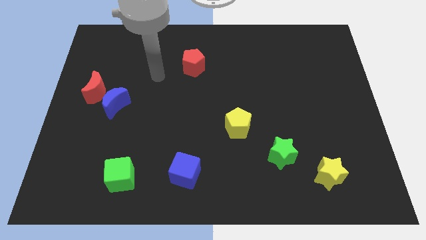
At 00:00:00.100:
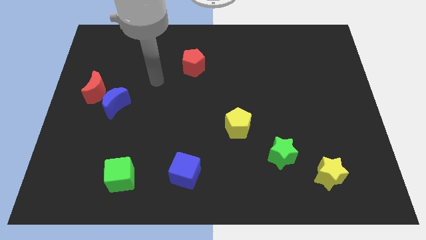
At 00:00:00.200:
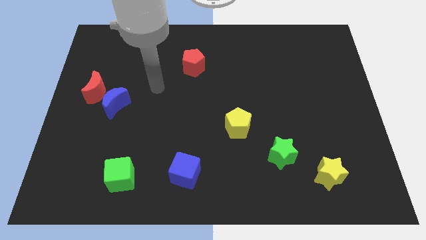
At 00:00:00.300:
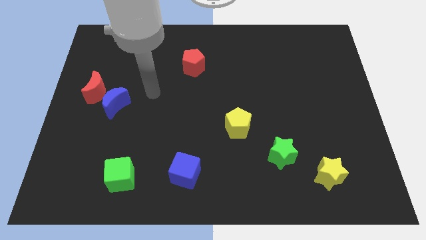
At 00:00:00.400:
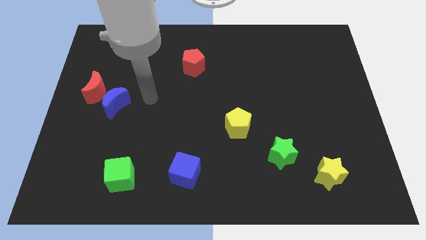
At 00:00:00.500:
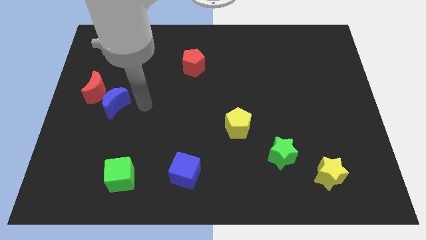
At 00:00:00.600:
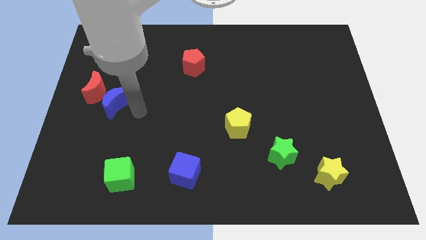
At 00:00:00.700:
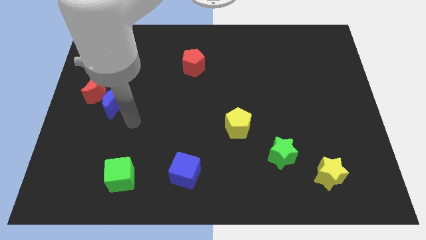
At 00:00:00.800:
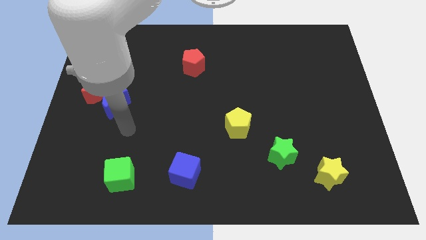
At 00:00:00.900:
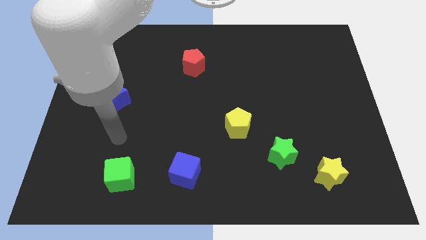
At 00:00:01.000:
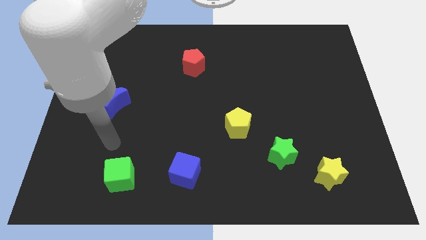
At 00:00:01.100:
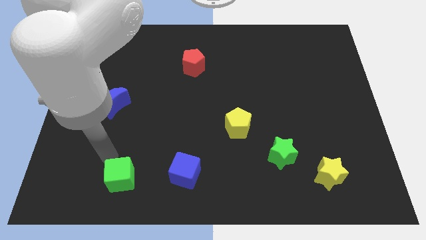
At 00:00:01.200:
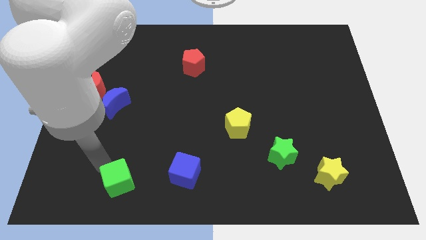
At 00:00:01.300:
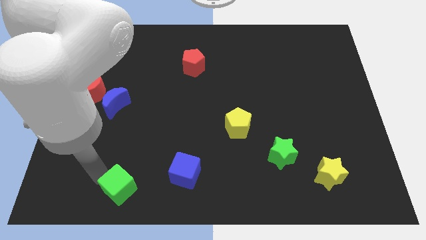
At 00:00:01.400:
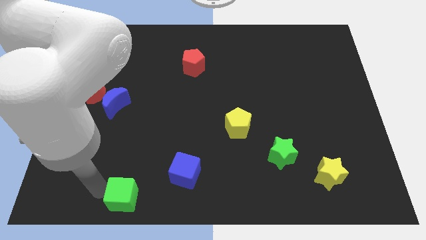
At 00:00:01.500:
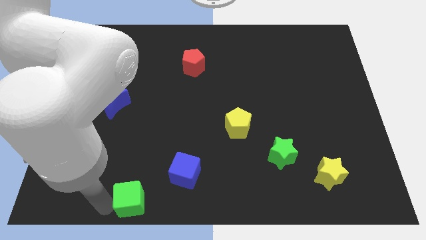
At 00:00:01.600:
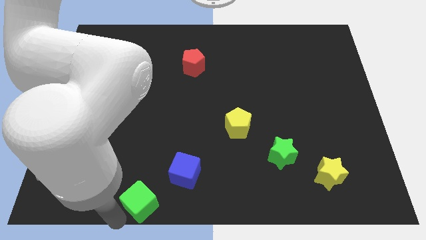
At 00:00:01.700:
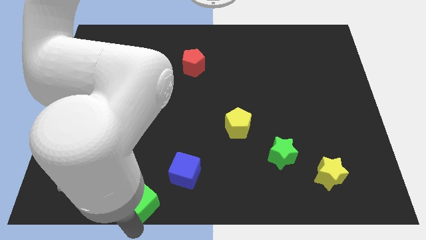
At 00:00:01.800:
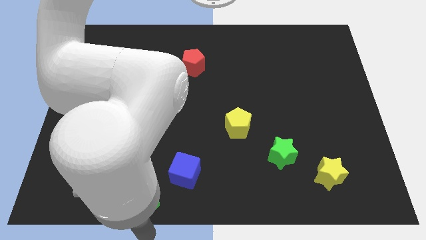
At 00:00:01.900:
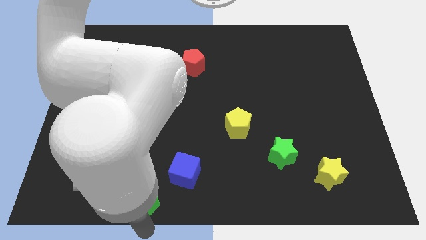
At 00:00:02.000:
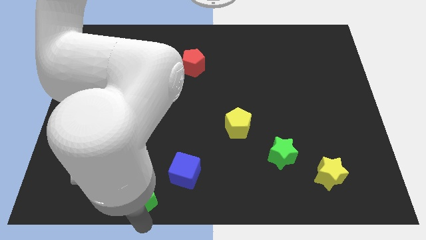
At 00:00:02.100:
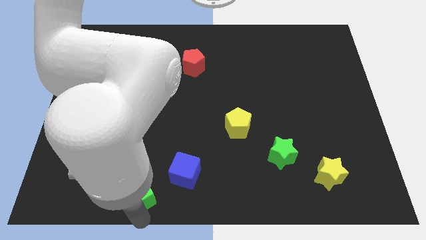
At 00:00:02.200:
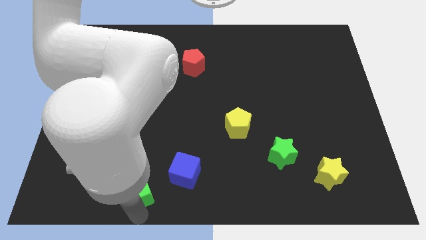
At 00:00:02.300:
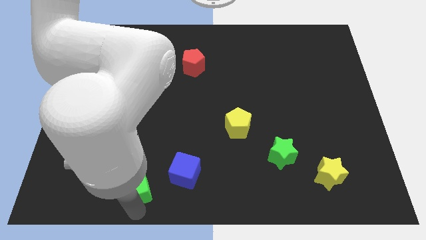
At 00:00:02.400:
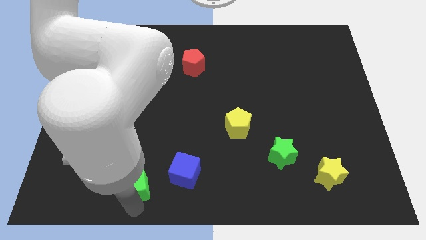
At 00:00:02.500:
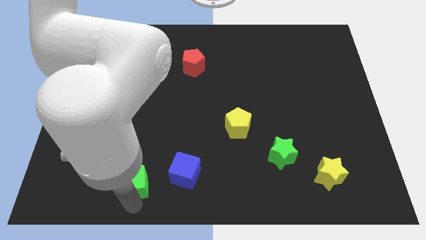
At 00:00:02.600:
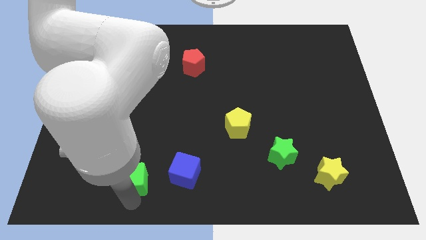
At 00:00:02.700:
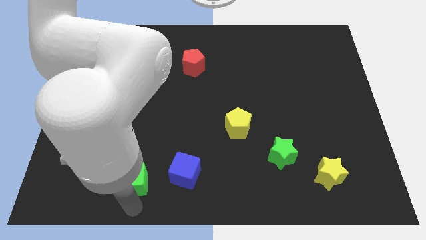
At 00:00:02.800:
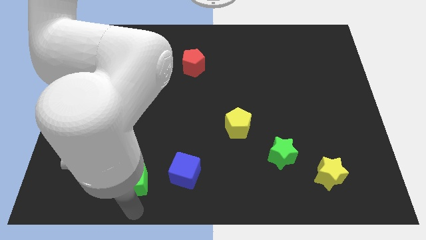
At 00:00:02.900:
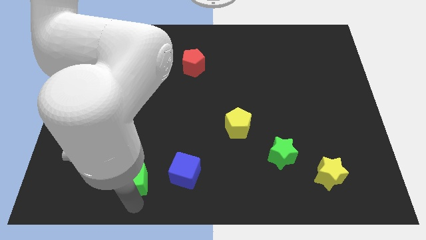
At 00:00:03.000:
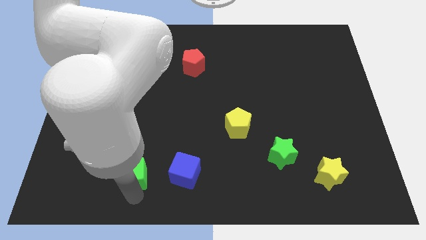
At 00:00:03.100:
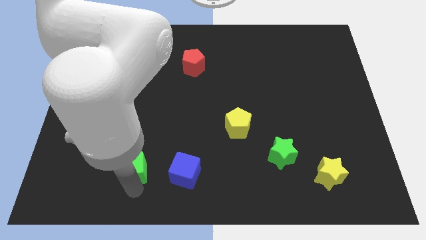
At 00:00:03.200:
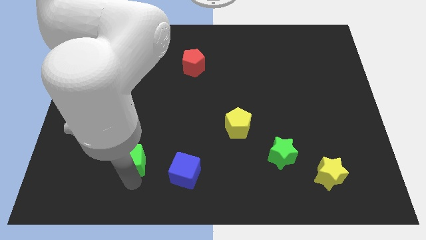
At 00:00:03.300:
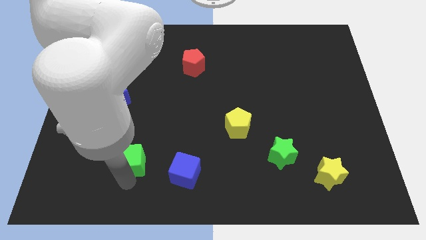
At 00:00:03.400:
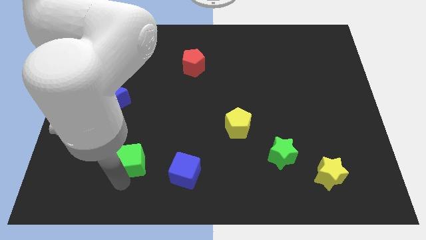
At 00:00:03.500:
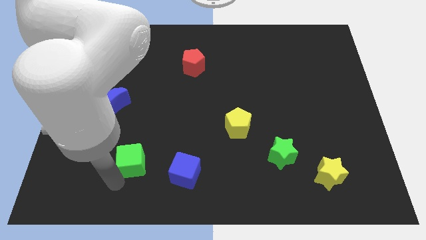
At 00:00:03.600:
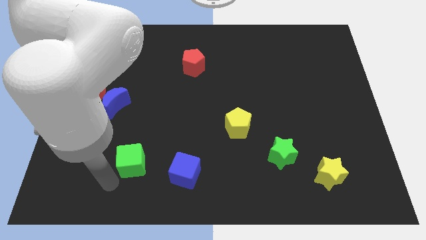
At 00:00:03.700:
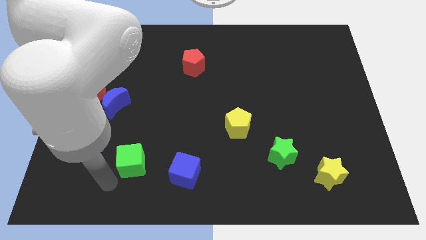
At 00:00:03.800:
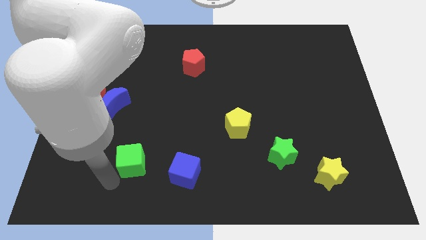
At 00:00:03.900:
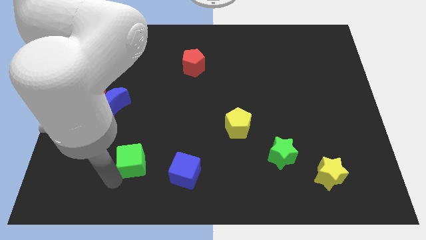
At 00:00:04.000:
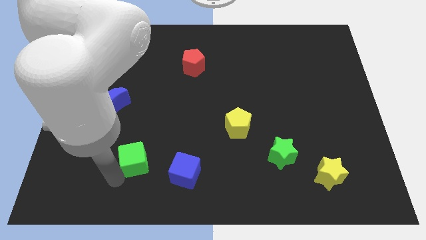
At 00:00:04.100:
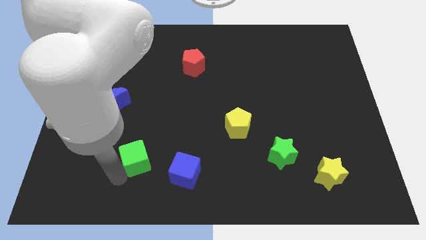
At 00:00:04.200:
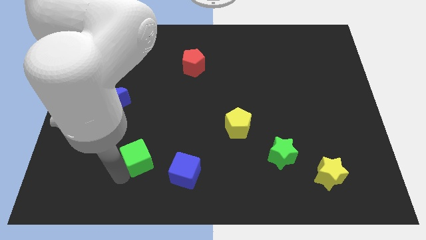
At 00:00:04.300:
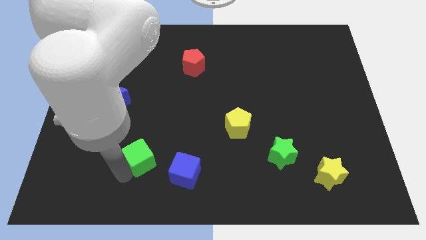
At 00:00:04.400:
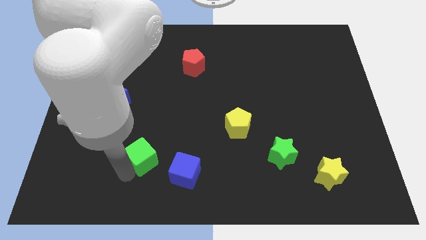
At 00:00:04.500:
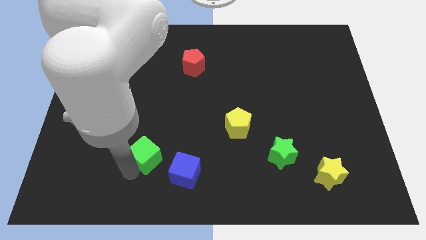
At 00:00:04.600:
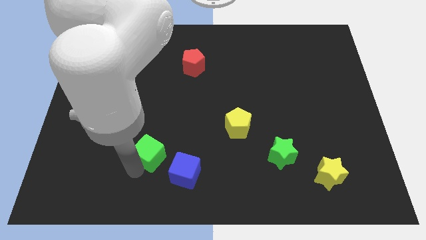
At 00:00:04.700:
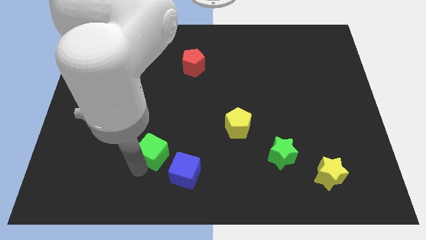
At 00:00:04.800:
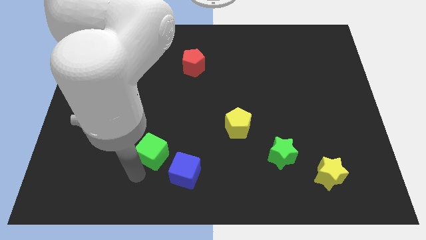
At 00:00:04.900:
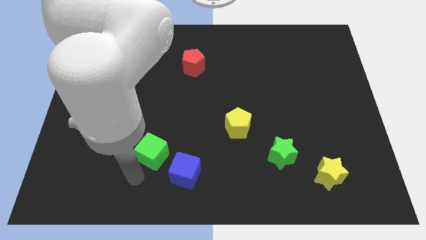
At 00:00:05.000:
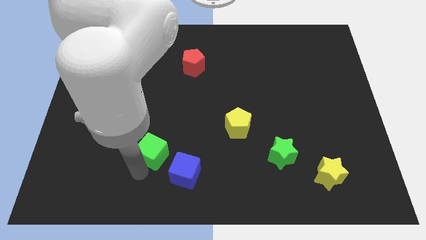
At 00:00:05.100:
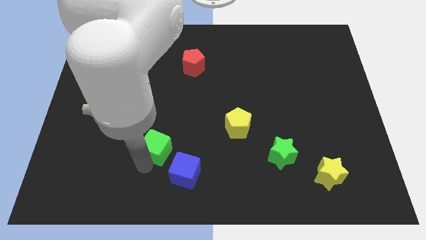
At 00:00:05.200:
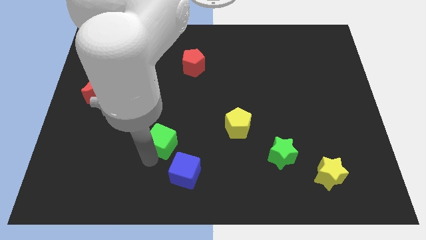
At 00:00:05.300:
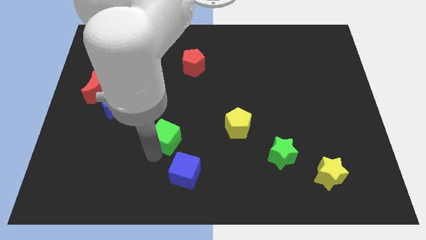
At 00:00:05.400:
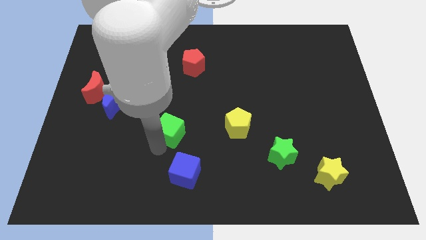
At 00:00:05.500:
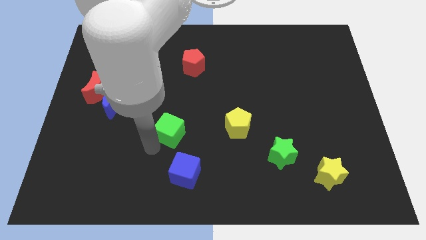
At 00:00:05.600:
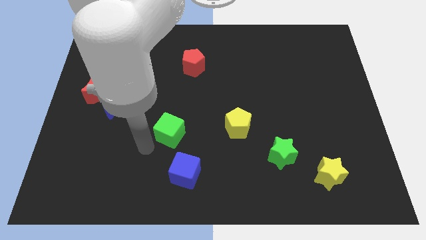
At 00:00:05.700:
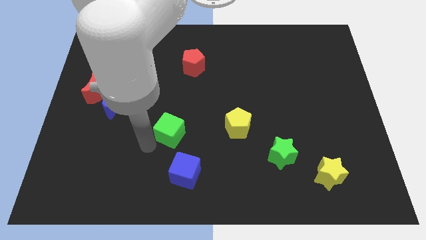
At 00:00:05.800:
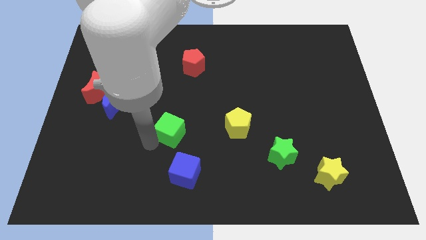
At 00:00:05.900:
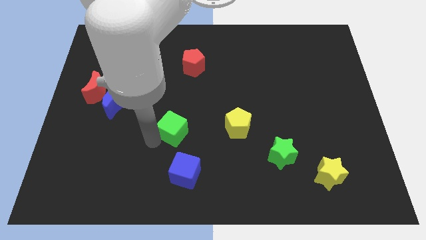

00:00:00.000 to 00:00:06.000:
slide the green cube to the center

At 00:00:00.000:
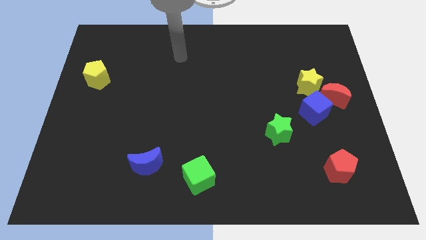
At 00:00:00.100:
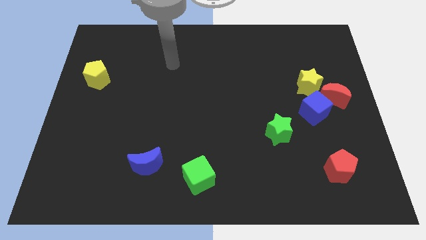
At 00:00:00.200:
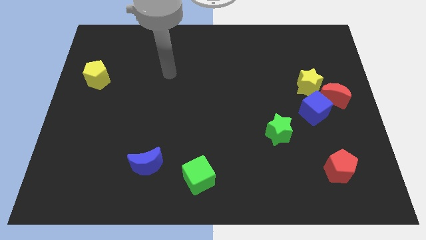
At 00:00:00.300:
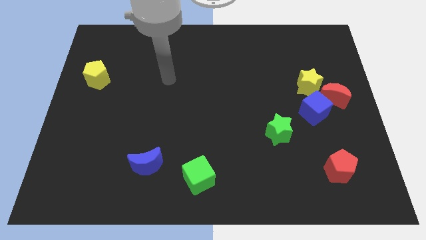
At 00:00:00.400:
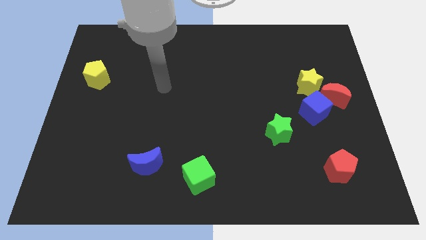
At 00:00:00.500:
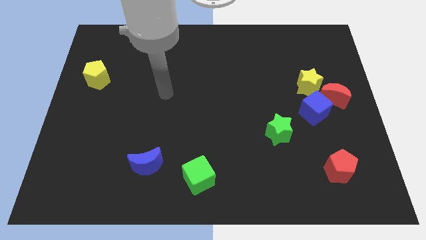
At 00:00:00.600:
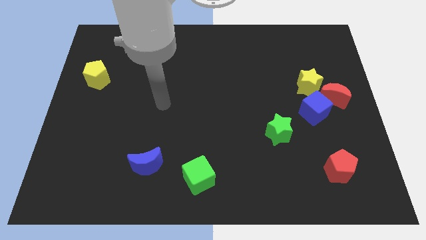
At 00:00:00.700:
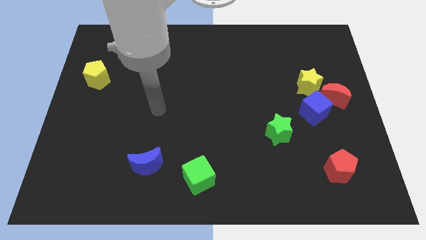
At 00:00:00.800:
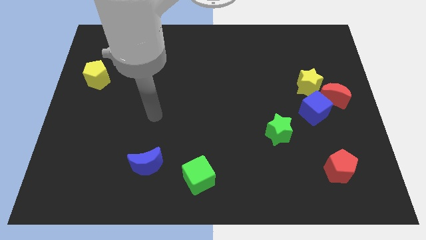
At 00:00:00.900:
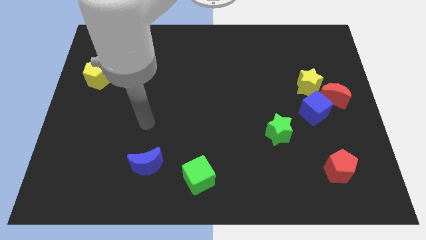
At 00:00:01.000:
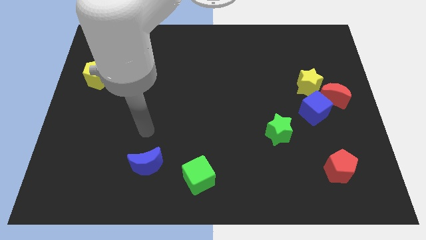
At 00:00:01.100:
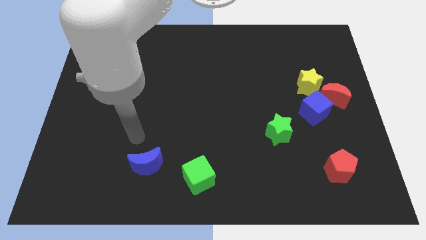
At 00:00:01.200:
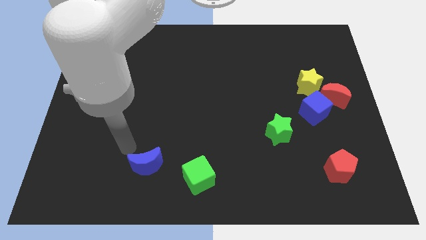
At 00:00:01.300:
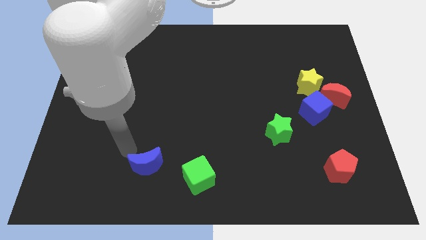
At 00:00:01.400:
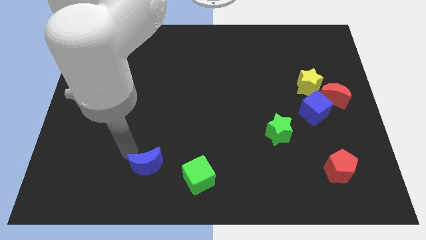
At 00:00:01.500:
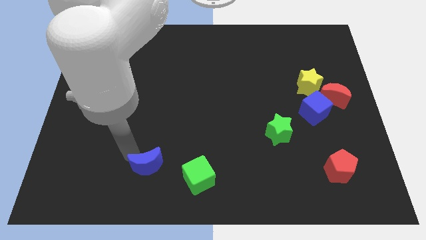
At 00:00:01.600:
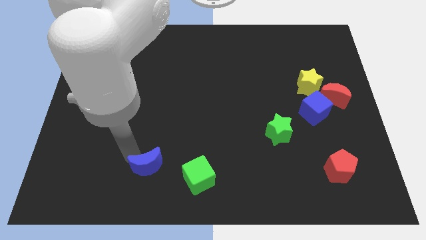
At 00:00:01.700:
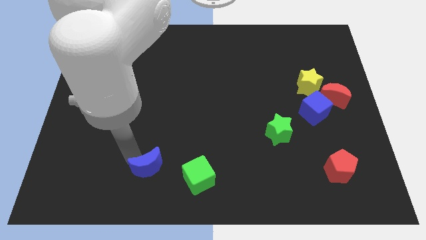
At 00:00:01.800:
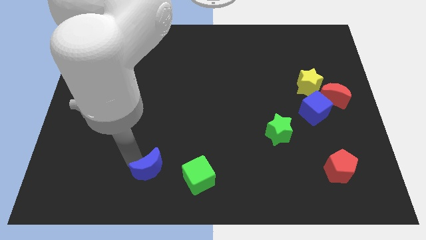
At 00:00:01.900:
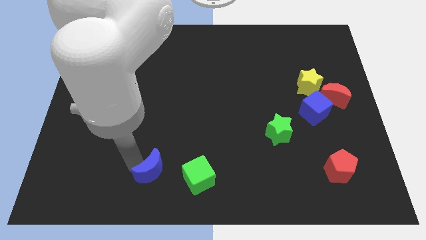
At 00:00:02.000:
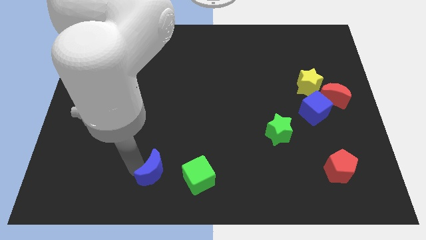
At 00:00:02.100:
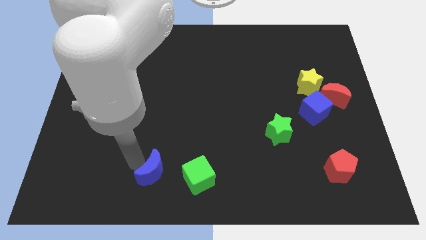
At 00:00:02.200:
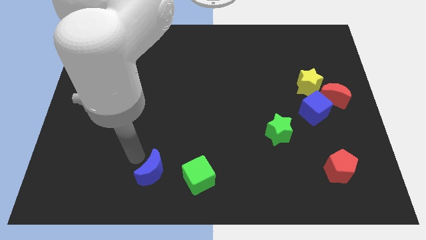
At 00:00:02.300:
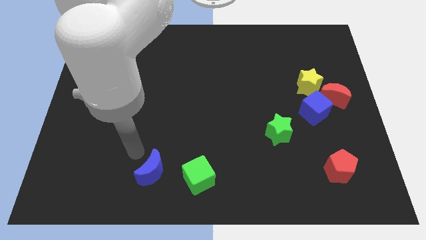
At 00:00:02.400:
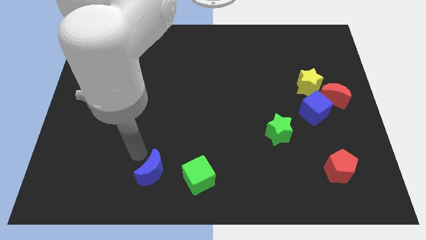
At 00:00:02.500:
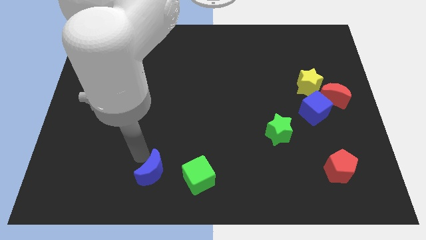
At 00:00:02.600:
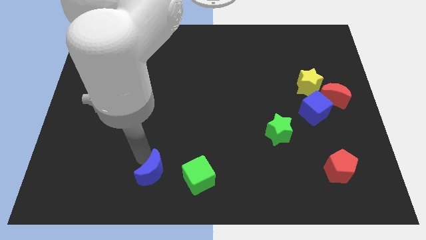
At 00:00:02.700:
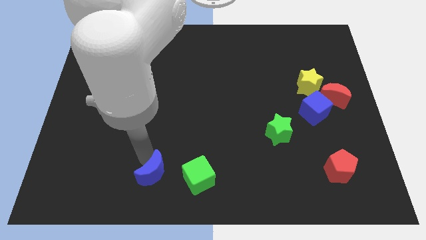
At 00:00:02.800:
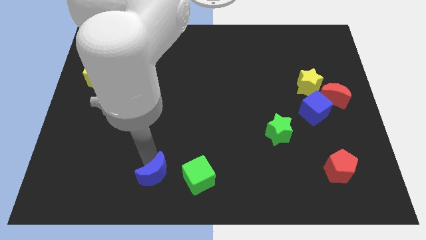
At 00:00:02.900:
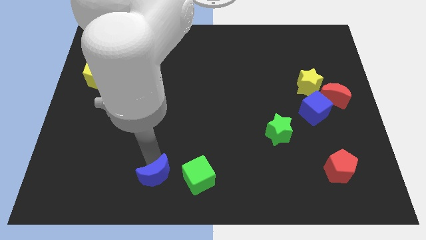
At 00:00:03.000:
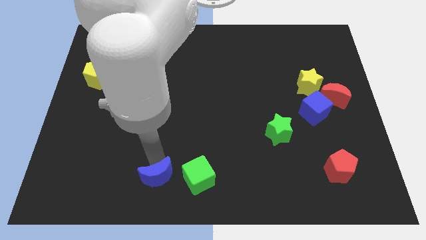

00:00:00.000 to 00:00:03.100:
move the blue moon to the bottom
